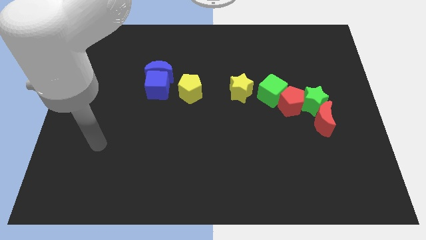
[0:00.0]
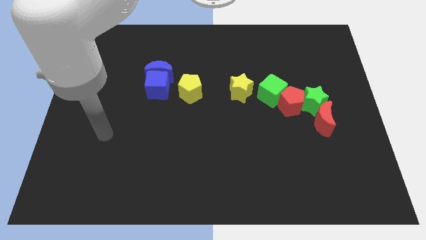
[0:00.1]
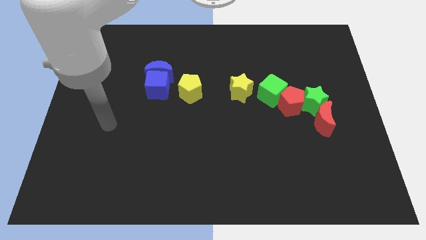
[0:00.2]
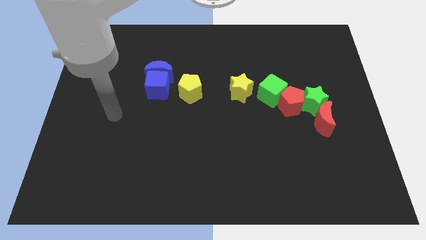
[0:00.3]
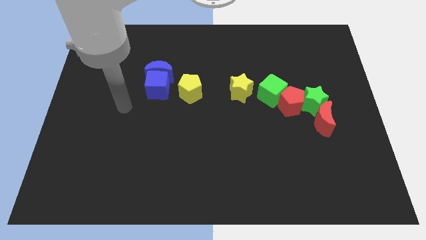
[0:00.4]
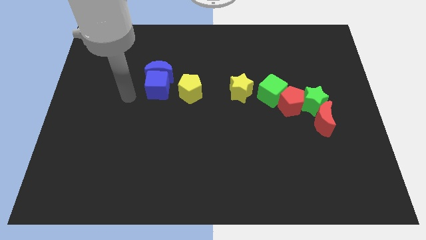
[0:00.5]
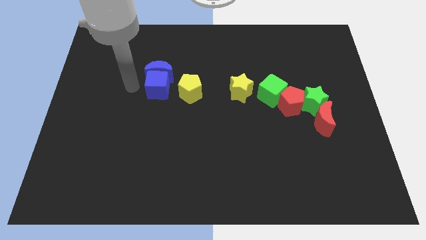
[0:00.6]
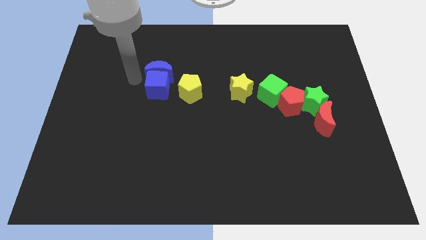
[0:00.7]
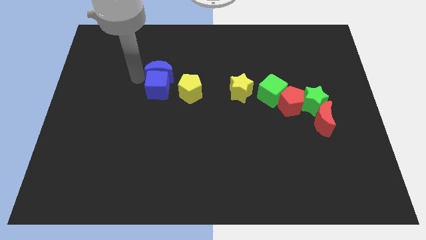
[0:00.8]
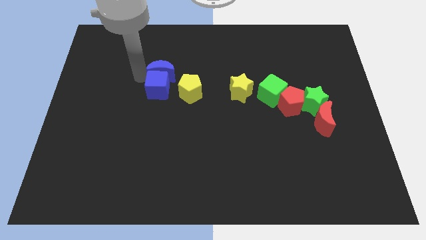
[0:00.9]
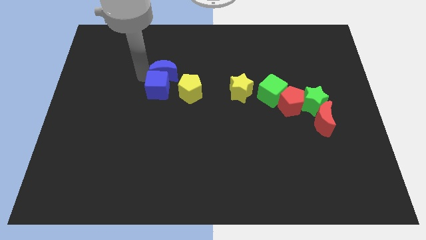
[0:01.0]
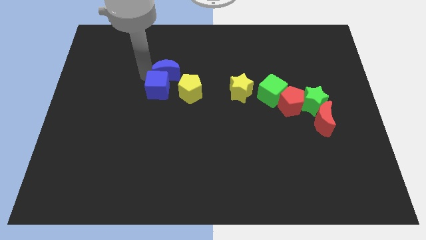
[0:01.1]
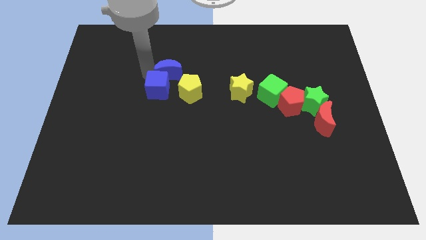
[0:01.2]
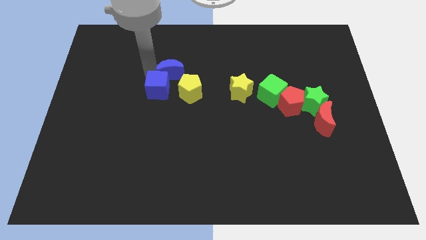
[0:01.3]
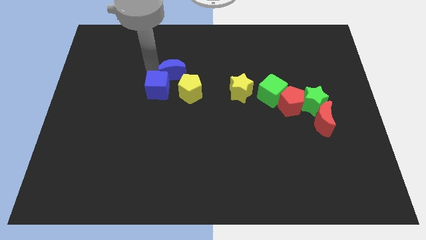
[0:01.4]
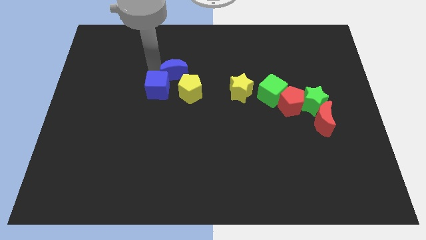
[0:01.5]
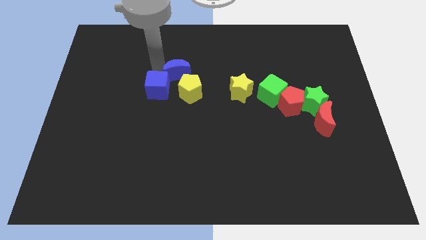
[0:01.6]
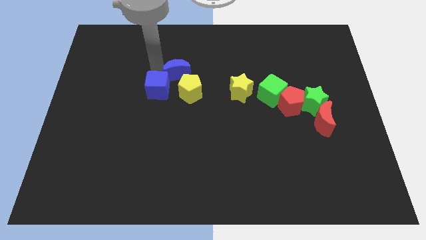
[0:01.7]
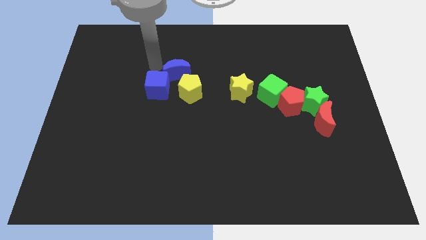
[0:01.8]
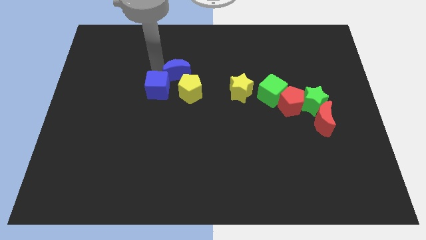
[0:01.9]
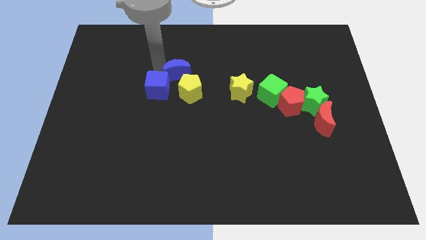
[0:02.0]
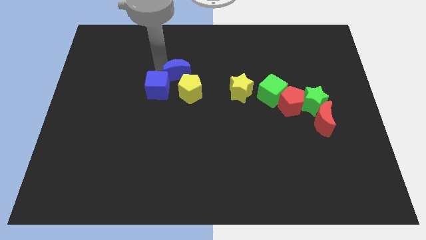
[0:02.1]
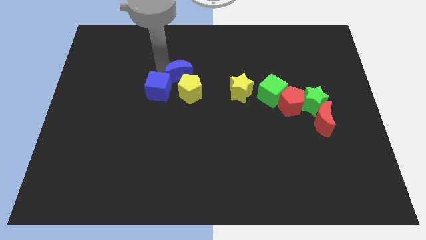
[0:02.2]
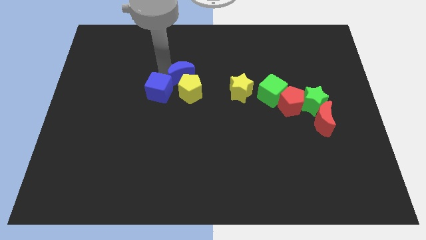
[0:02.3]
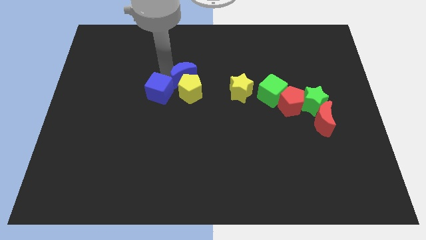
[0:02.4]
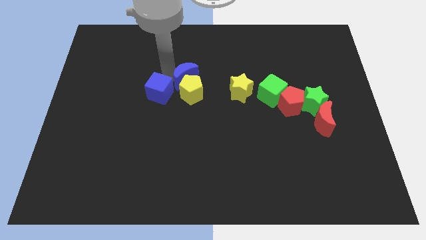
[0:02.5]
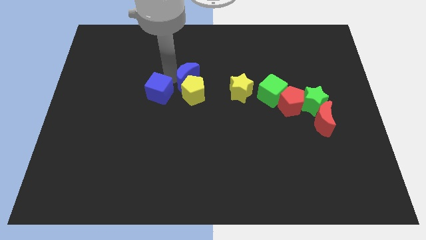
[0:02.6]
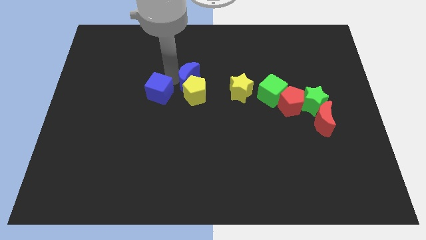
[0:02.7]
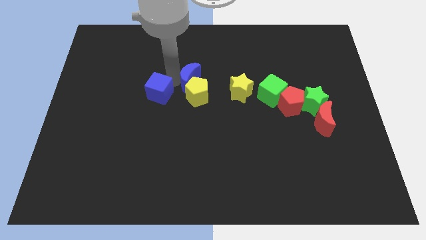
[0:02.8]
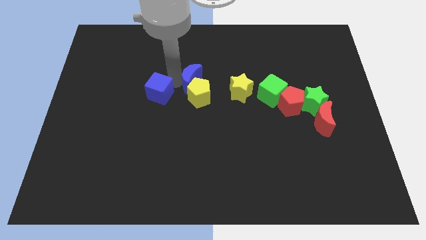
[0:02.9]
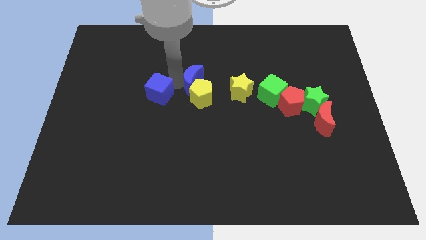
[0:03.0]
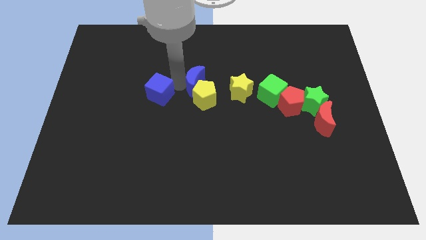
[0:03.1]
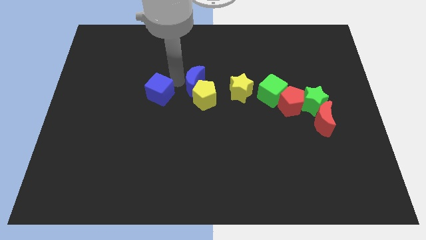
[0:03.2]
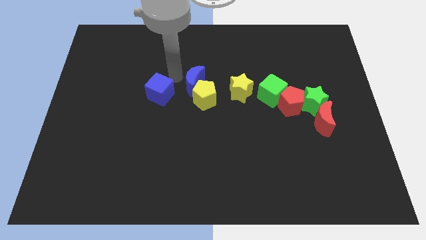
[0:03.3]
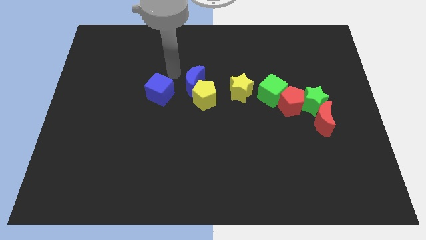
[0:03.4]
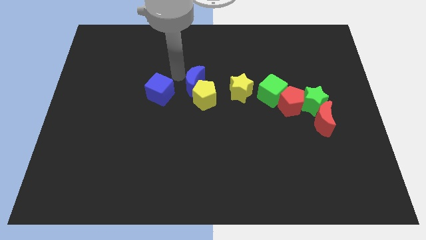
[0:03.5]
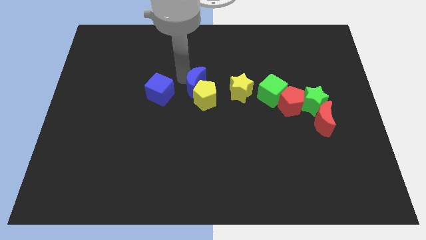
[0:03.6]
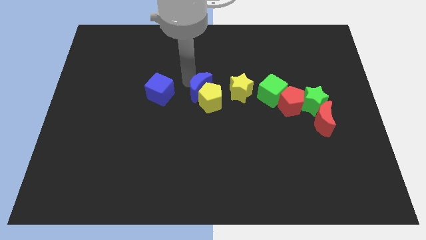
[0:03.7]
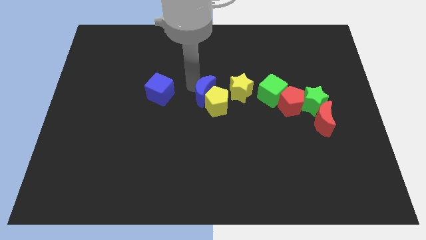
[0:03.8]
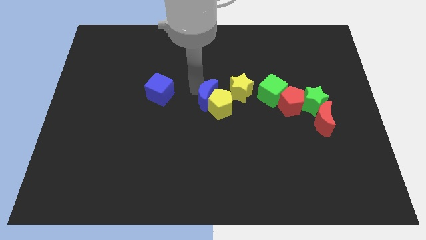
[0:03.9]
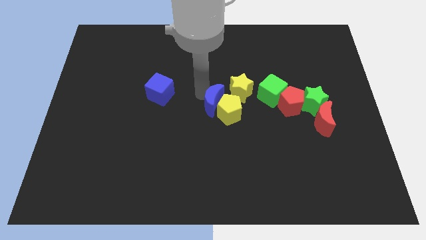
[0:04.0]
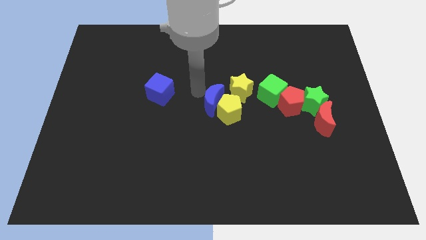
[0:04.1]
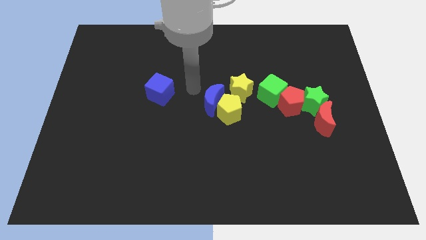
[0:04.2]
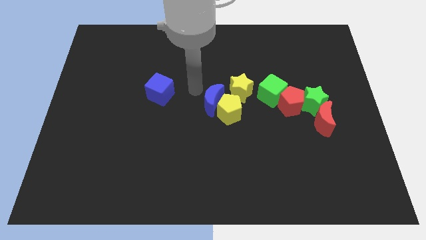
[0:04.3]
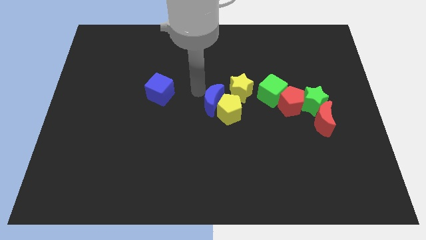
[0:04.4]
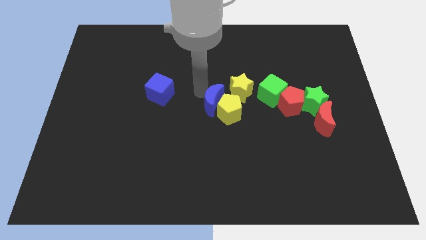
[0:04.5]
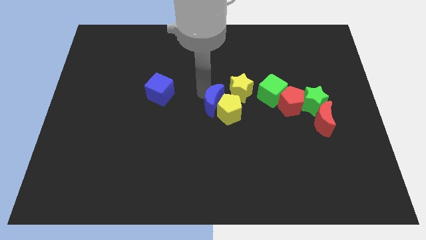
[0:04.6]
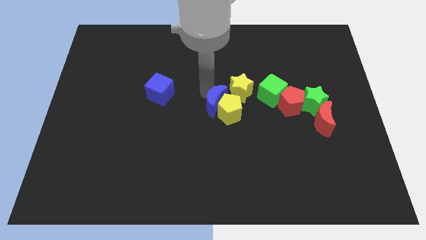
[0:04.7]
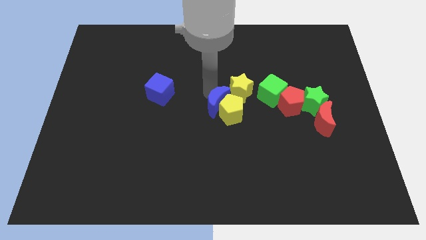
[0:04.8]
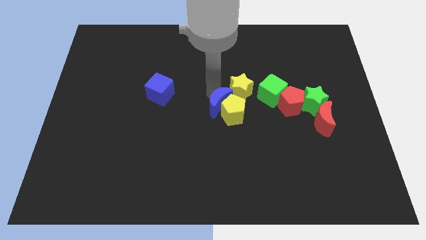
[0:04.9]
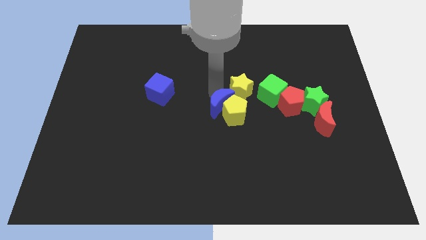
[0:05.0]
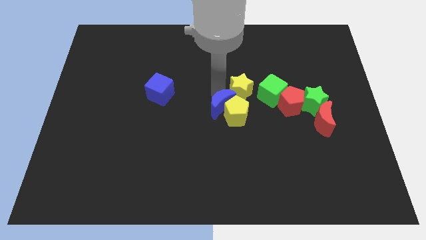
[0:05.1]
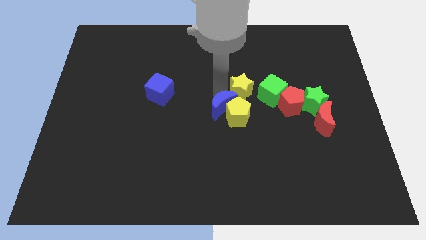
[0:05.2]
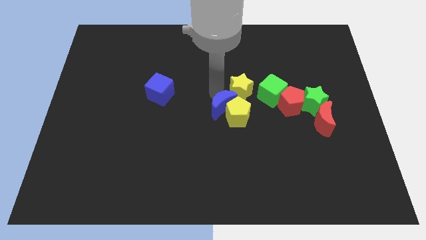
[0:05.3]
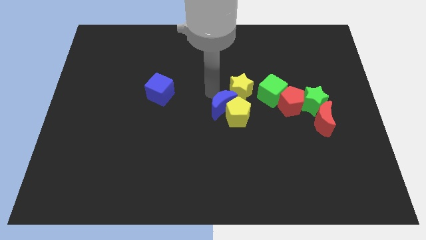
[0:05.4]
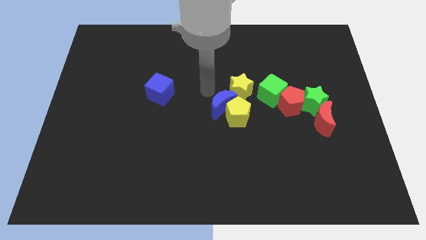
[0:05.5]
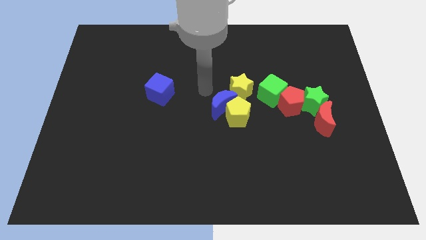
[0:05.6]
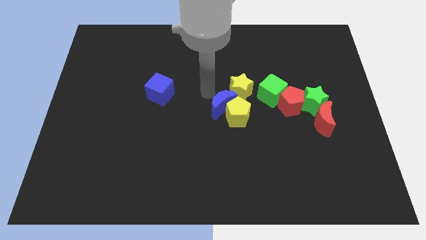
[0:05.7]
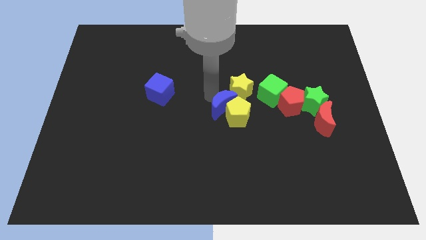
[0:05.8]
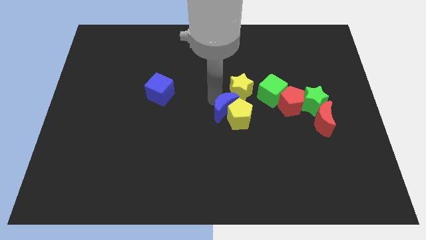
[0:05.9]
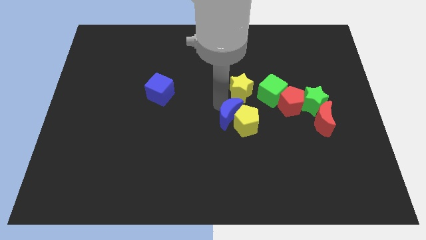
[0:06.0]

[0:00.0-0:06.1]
slide the blue moon downwards and right diagonally

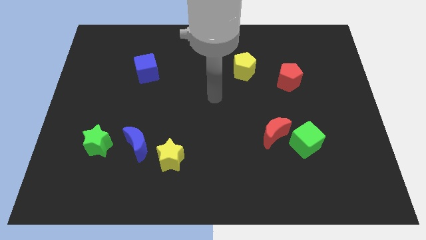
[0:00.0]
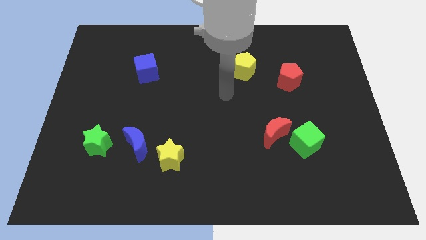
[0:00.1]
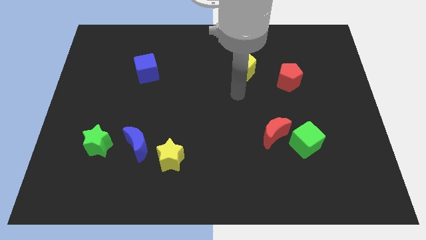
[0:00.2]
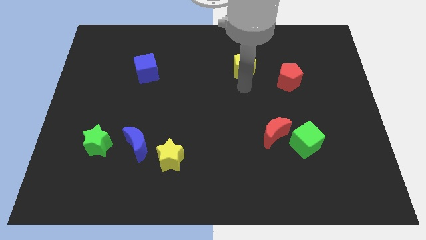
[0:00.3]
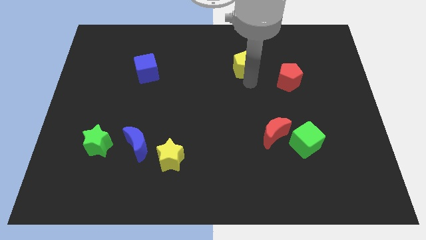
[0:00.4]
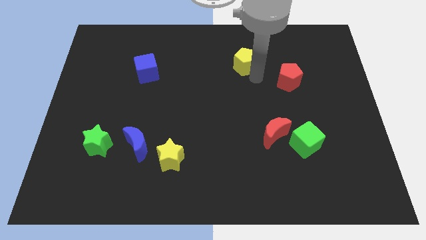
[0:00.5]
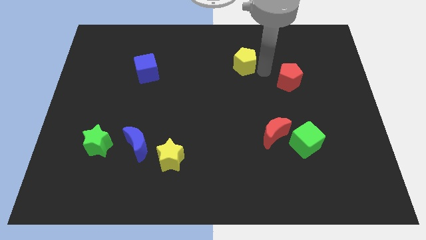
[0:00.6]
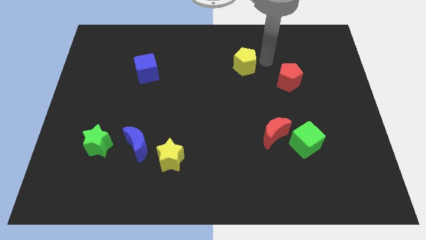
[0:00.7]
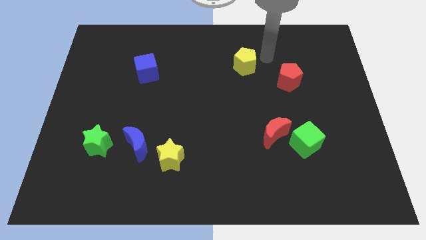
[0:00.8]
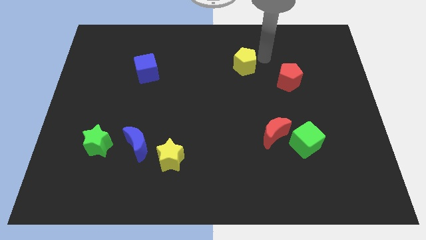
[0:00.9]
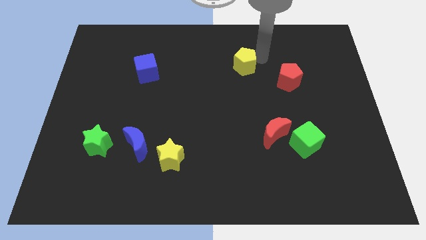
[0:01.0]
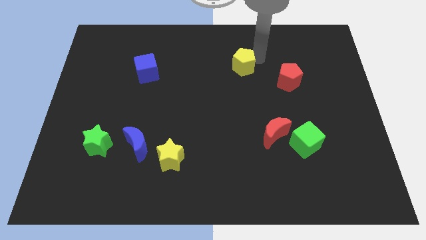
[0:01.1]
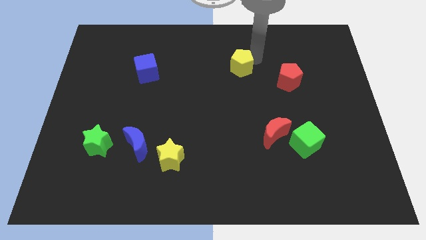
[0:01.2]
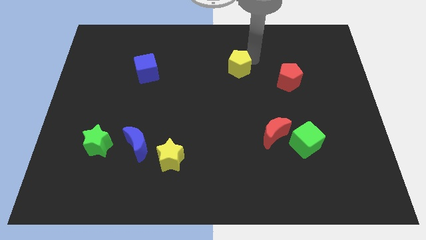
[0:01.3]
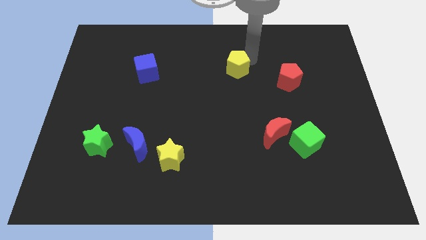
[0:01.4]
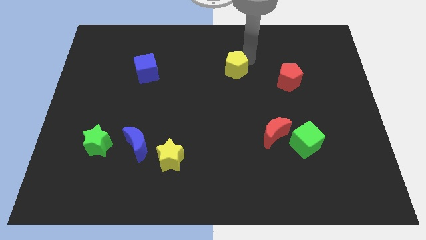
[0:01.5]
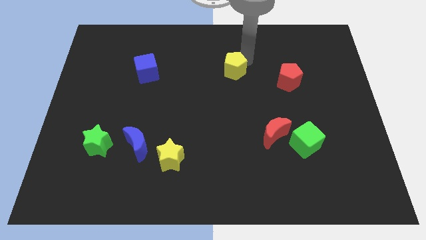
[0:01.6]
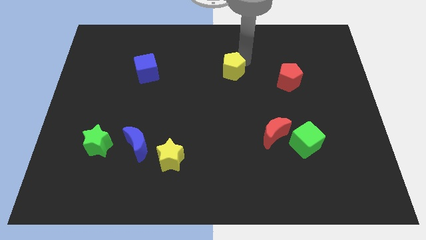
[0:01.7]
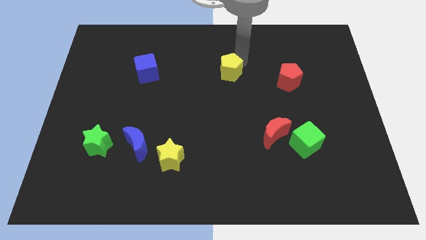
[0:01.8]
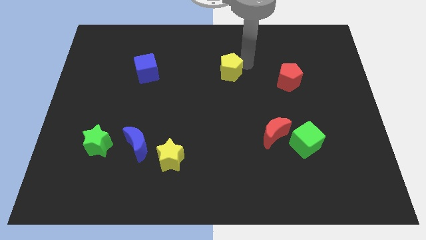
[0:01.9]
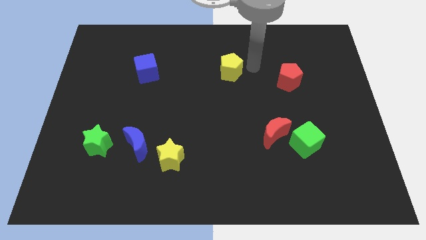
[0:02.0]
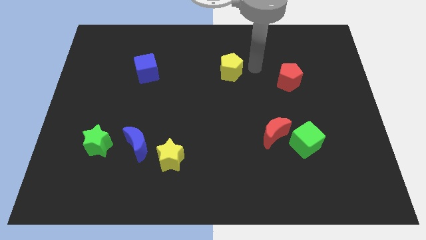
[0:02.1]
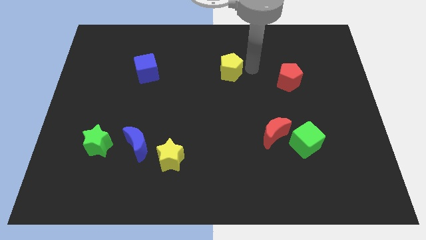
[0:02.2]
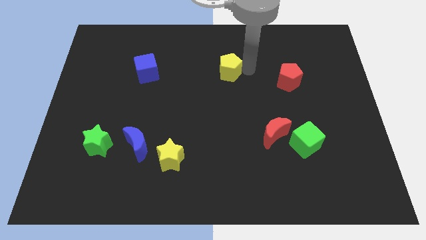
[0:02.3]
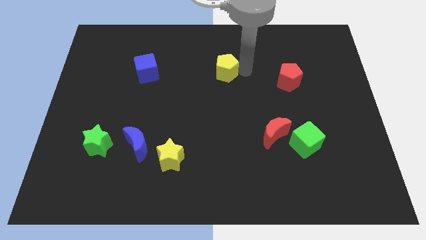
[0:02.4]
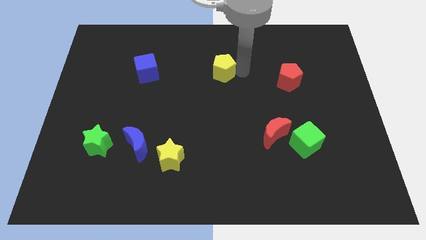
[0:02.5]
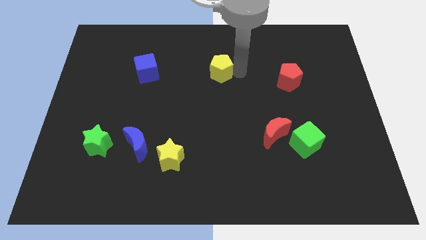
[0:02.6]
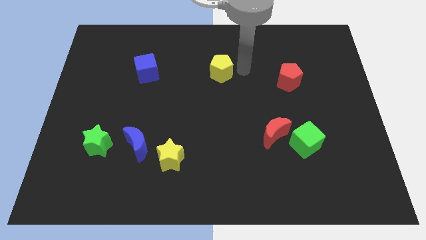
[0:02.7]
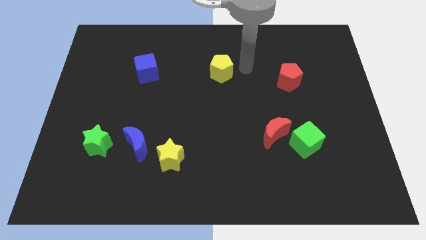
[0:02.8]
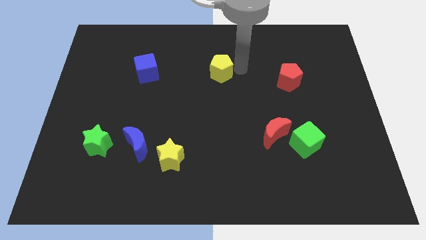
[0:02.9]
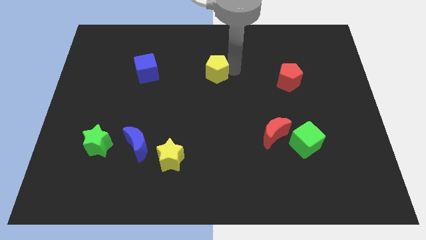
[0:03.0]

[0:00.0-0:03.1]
slightly move the yellow pentagon left
